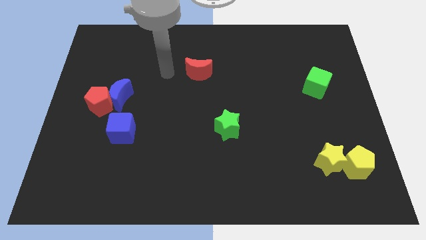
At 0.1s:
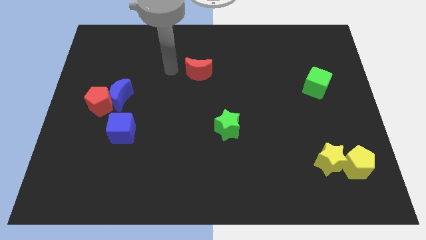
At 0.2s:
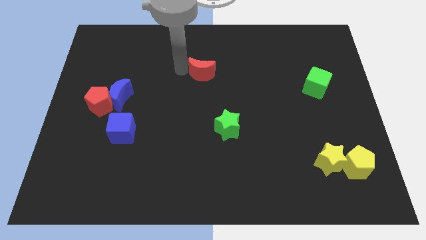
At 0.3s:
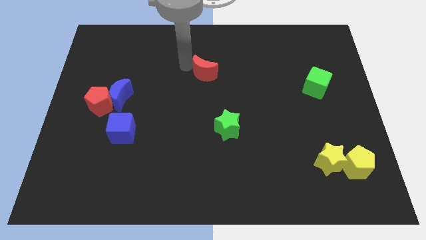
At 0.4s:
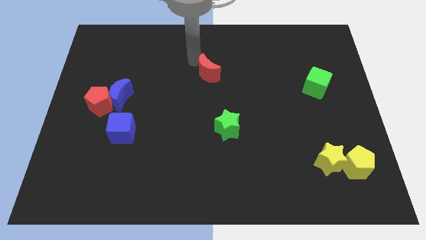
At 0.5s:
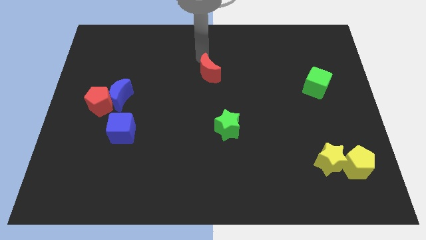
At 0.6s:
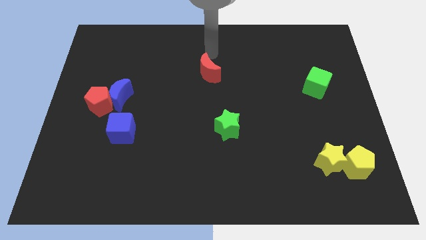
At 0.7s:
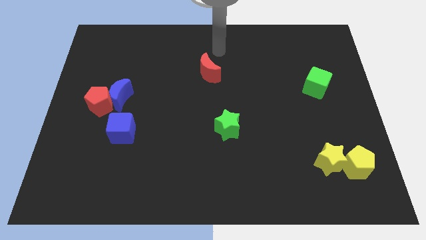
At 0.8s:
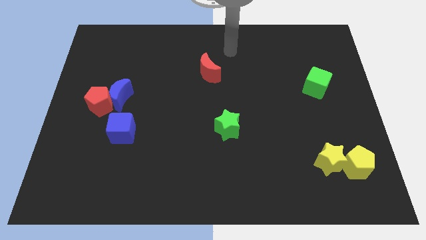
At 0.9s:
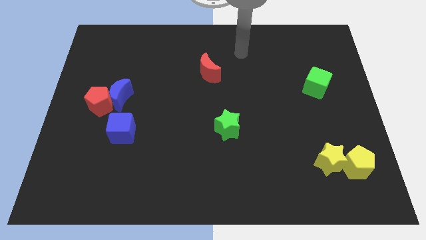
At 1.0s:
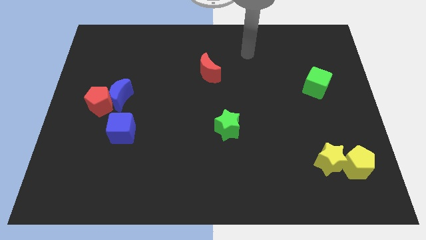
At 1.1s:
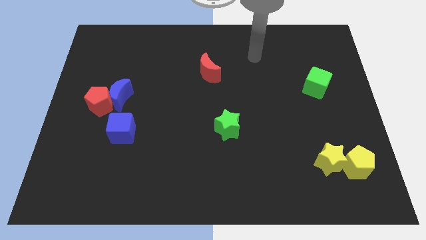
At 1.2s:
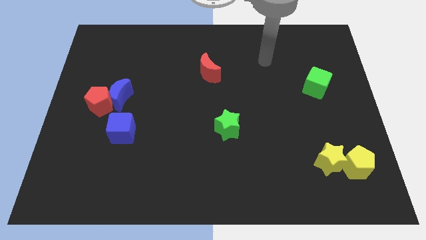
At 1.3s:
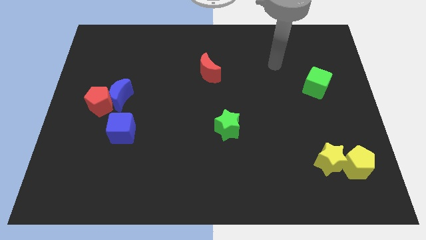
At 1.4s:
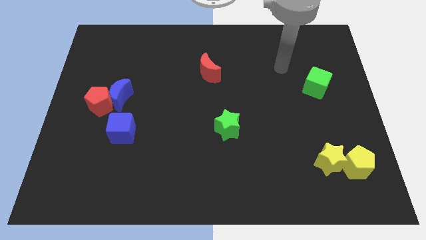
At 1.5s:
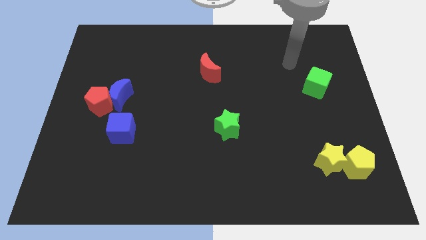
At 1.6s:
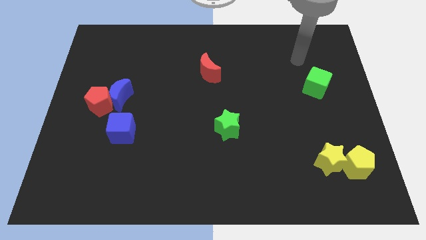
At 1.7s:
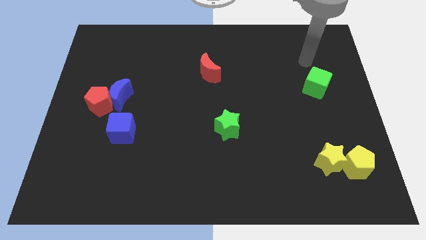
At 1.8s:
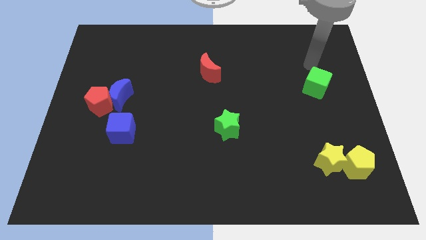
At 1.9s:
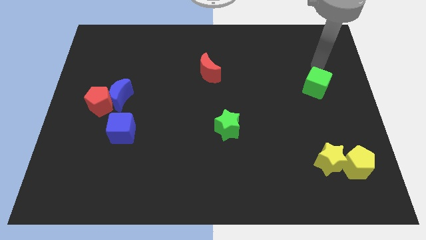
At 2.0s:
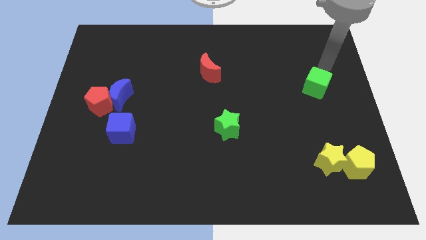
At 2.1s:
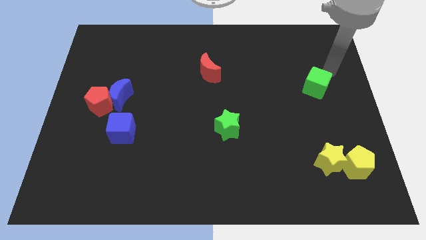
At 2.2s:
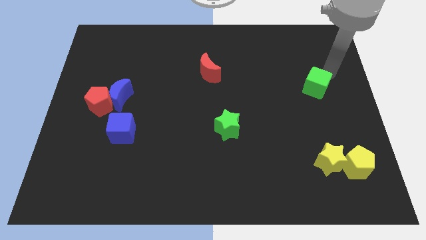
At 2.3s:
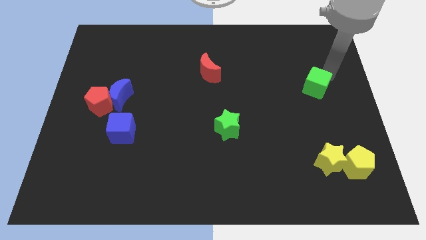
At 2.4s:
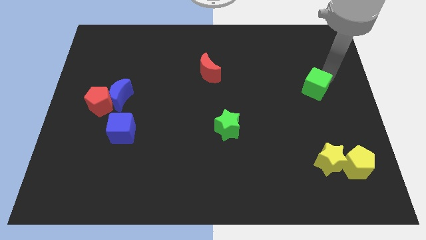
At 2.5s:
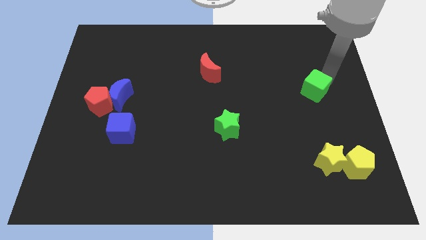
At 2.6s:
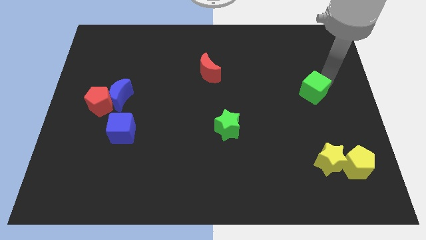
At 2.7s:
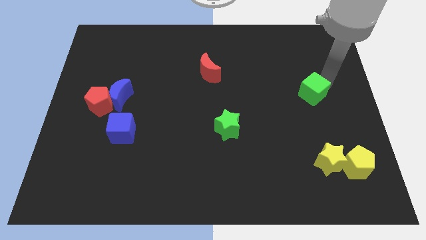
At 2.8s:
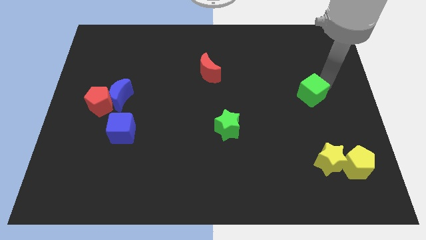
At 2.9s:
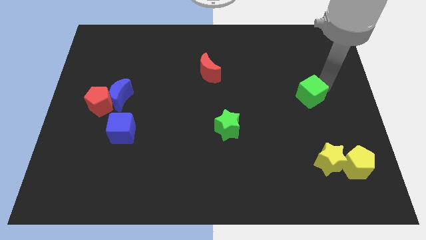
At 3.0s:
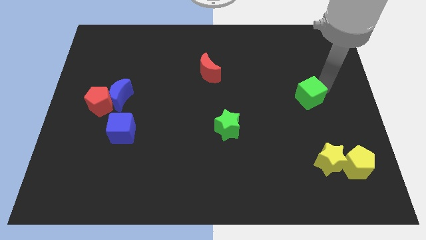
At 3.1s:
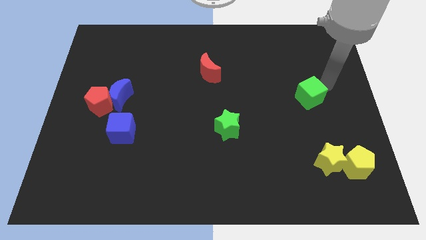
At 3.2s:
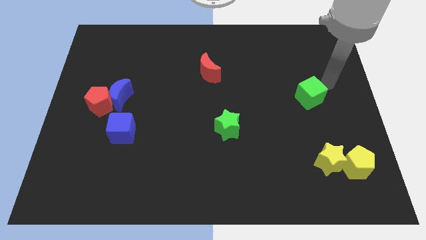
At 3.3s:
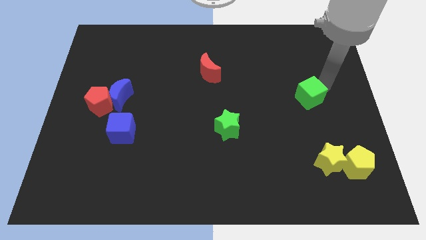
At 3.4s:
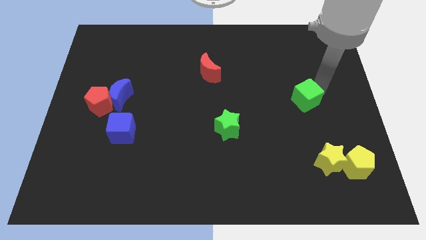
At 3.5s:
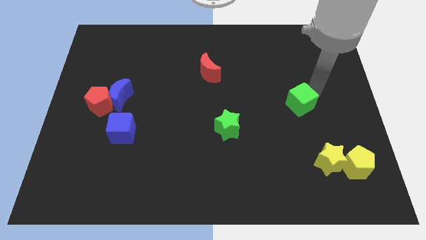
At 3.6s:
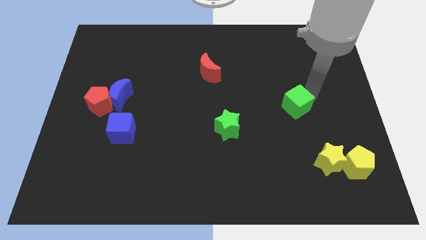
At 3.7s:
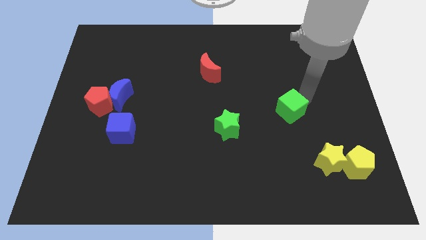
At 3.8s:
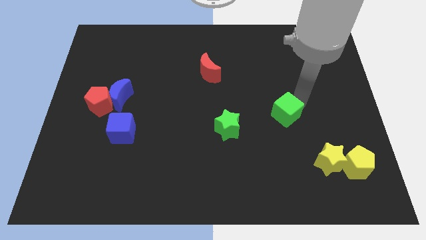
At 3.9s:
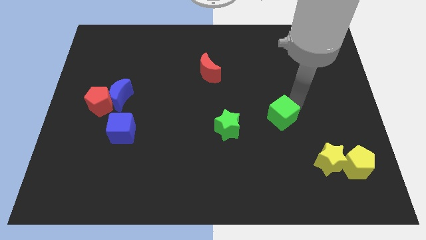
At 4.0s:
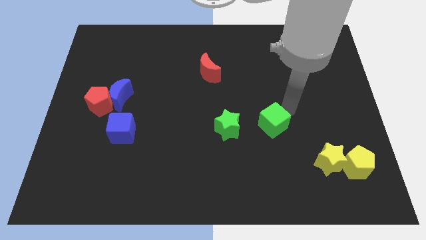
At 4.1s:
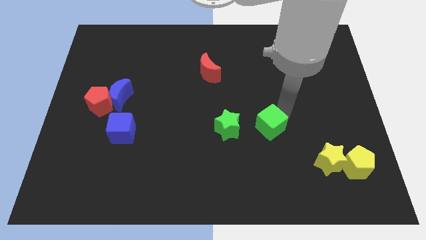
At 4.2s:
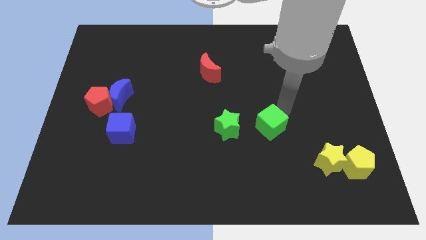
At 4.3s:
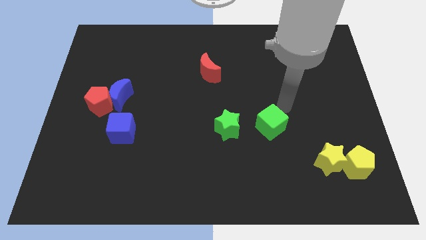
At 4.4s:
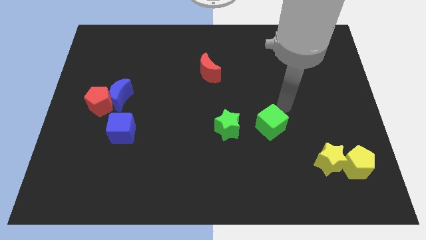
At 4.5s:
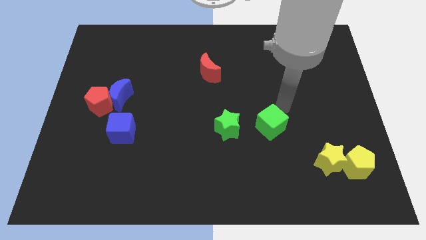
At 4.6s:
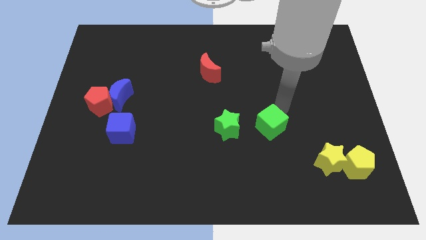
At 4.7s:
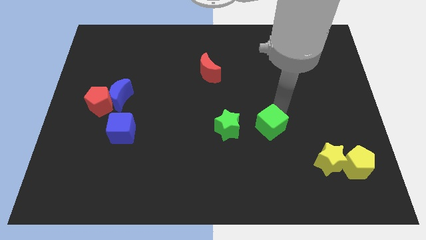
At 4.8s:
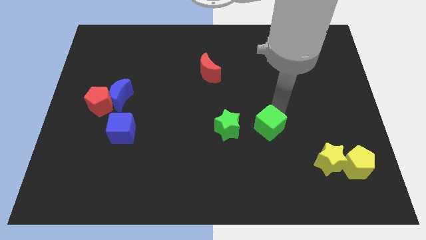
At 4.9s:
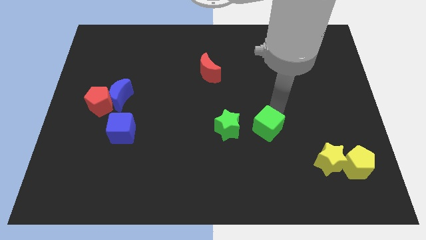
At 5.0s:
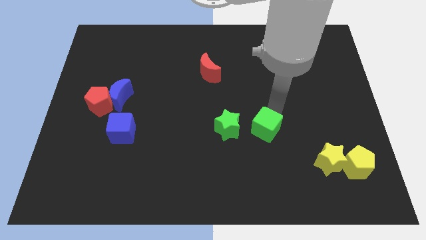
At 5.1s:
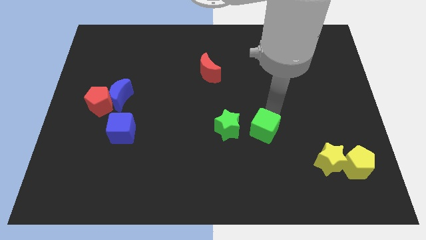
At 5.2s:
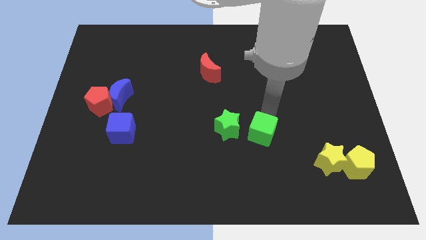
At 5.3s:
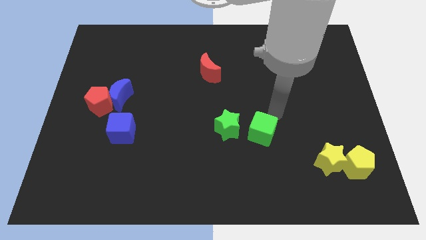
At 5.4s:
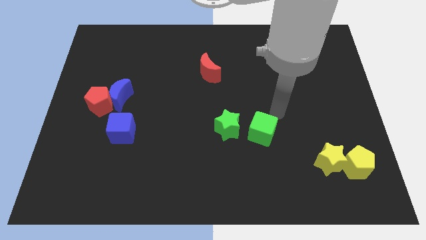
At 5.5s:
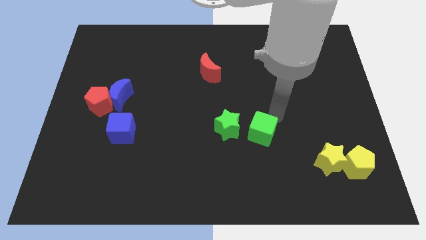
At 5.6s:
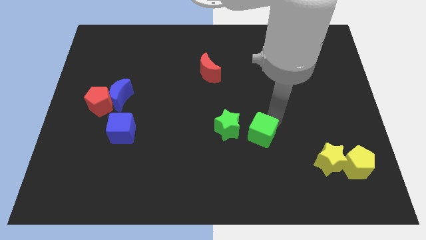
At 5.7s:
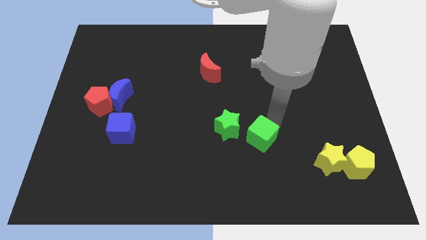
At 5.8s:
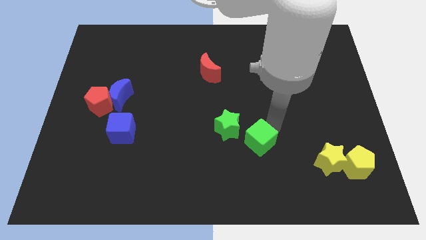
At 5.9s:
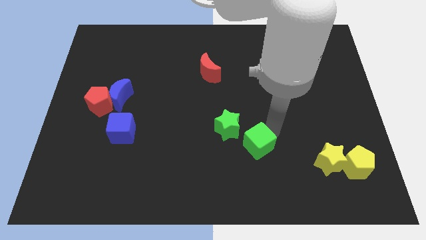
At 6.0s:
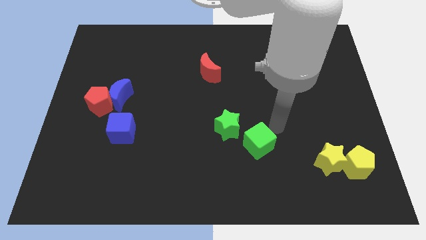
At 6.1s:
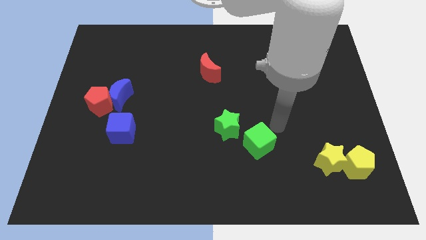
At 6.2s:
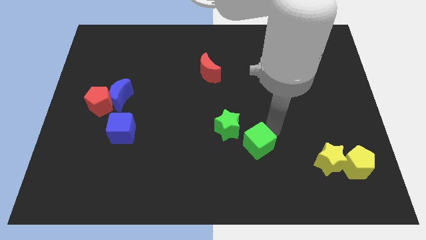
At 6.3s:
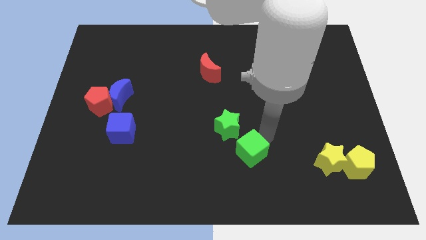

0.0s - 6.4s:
push the green cube to the bottom of the green star
